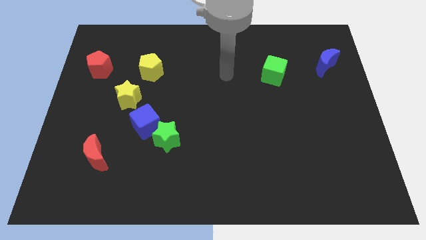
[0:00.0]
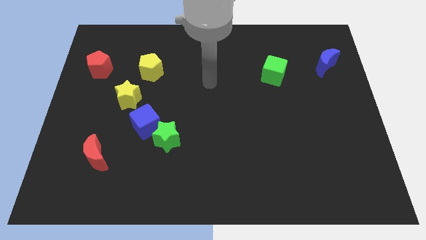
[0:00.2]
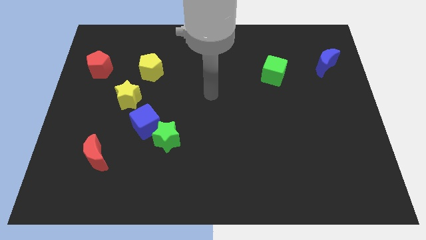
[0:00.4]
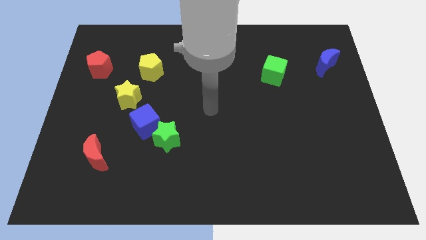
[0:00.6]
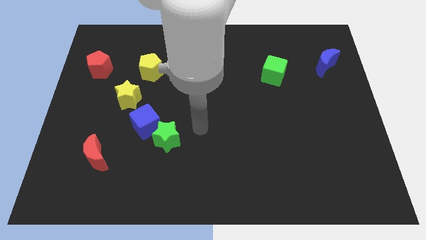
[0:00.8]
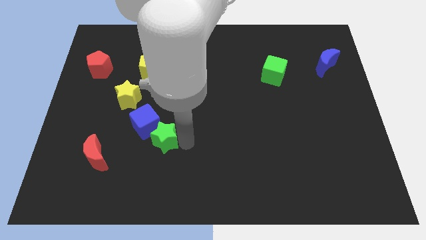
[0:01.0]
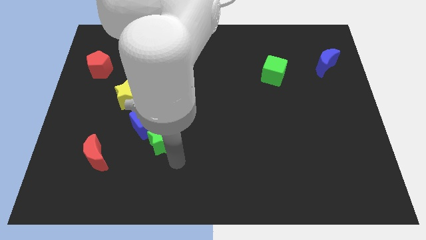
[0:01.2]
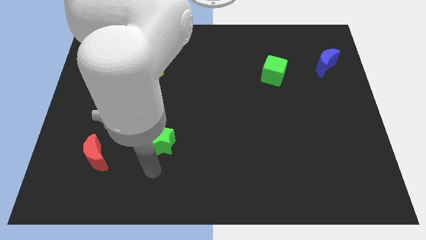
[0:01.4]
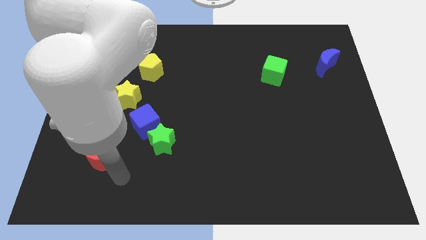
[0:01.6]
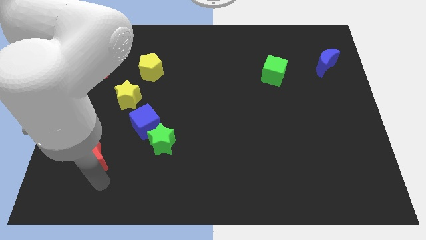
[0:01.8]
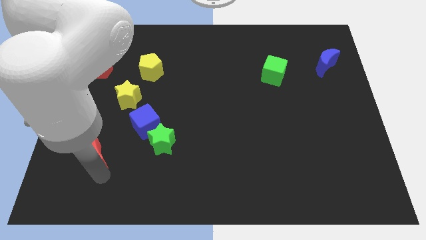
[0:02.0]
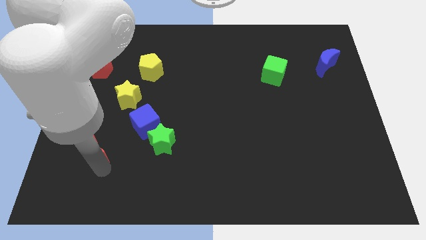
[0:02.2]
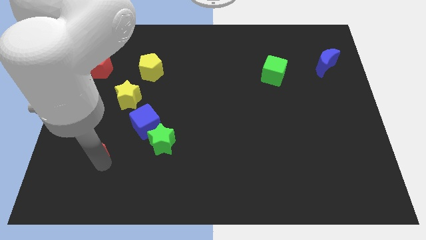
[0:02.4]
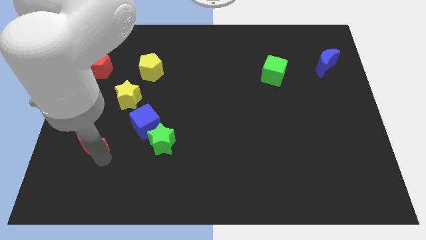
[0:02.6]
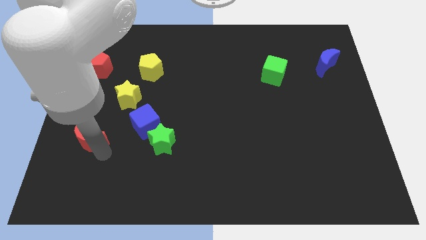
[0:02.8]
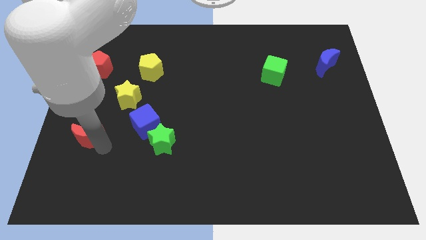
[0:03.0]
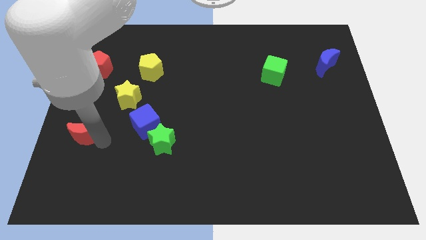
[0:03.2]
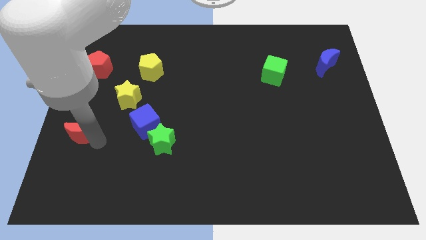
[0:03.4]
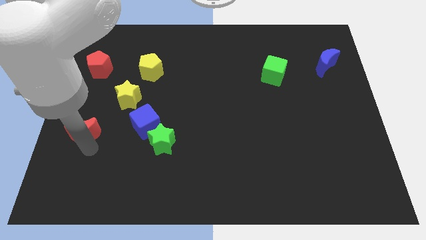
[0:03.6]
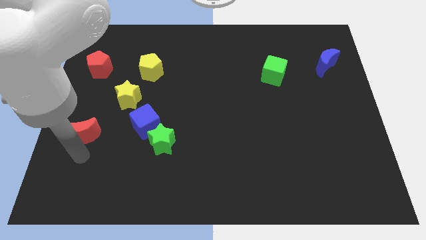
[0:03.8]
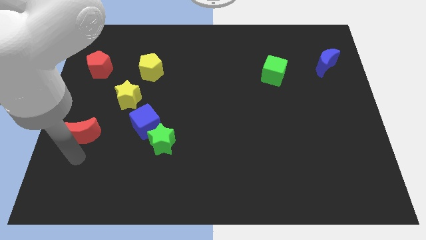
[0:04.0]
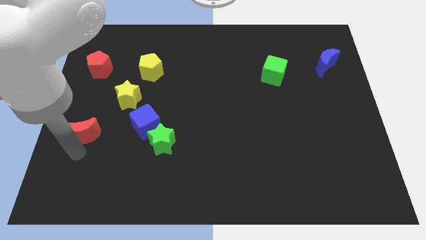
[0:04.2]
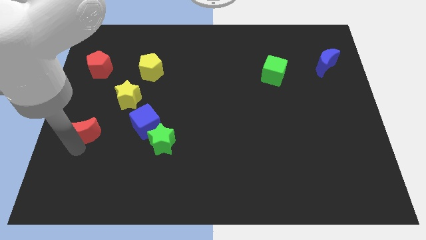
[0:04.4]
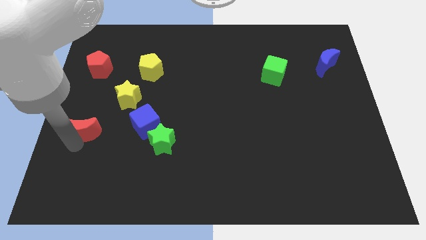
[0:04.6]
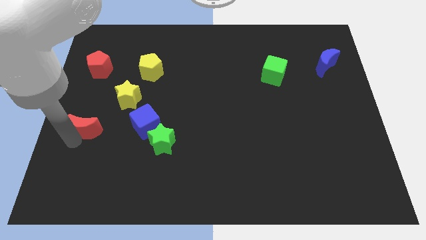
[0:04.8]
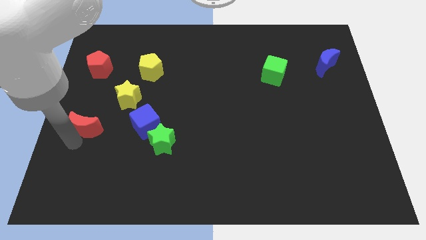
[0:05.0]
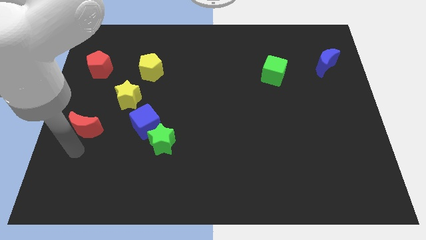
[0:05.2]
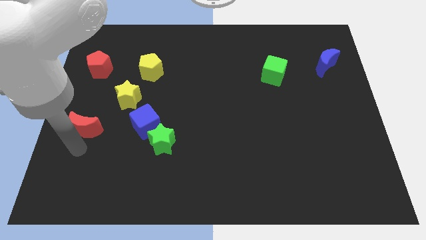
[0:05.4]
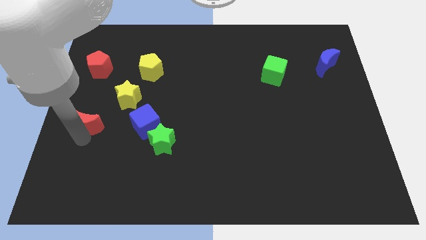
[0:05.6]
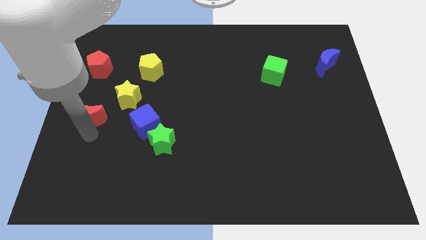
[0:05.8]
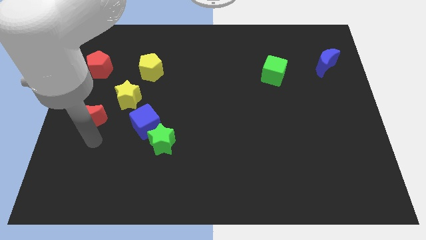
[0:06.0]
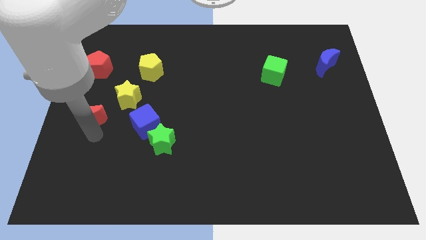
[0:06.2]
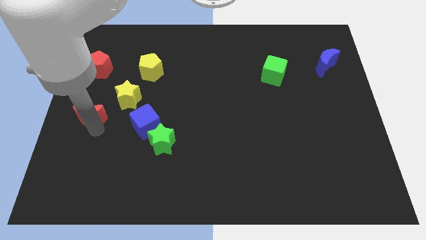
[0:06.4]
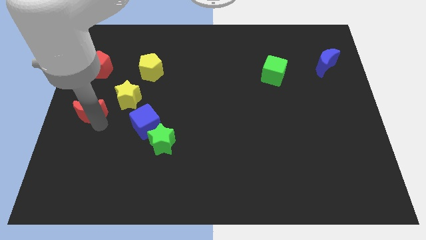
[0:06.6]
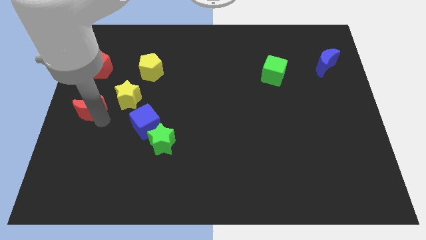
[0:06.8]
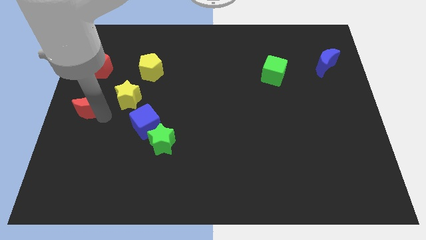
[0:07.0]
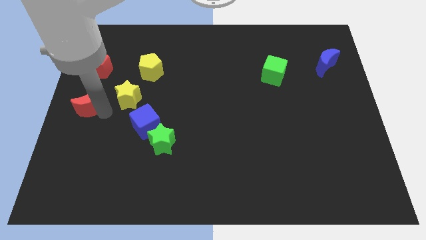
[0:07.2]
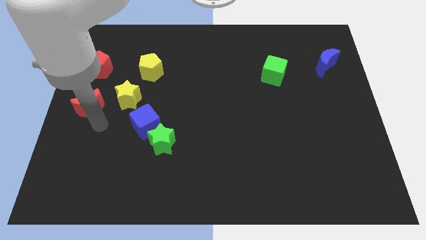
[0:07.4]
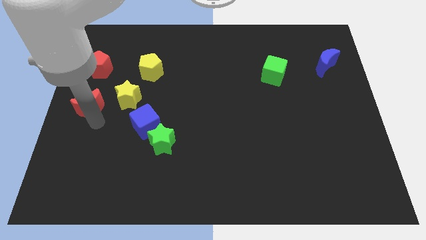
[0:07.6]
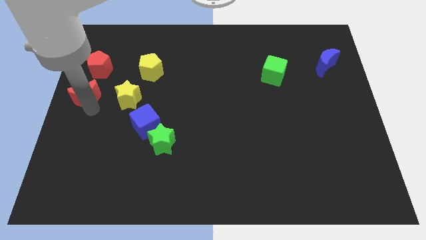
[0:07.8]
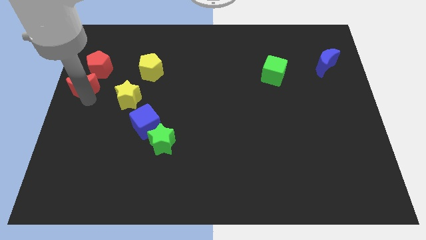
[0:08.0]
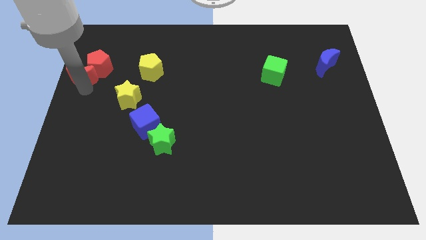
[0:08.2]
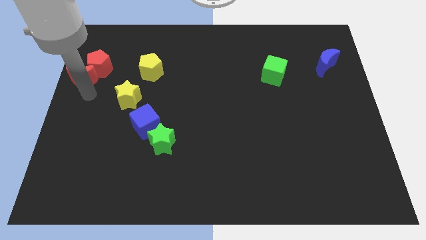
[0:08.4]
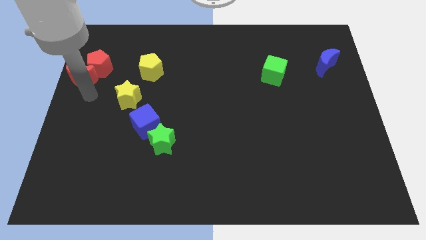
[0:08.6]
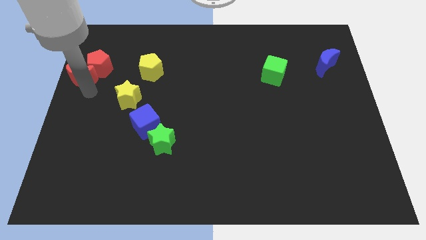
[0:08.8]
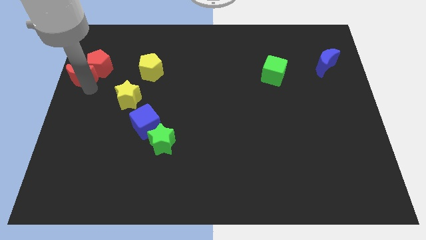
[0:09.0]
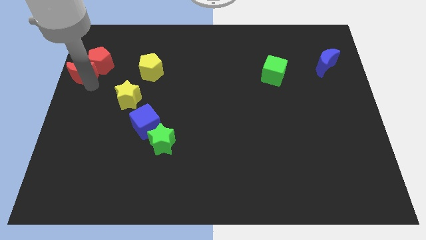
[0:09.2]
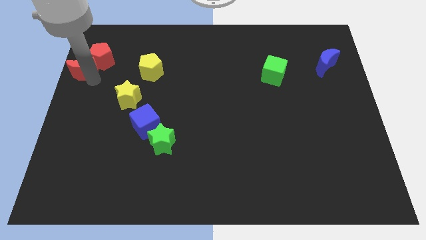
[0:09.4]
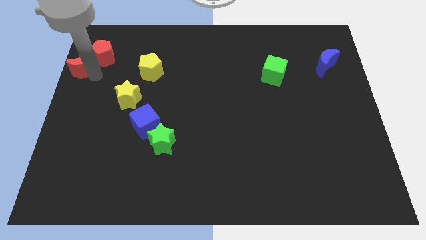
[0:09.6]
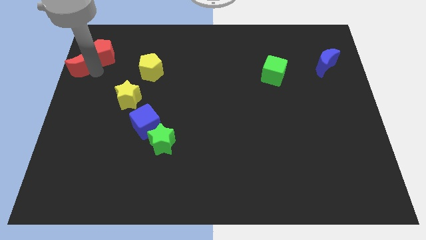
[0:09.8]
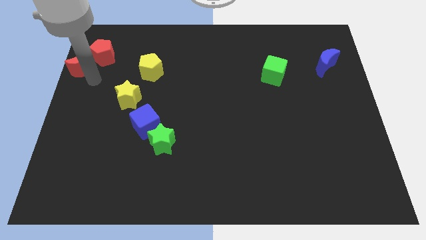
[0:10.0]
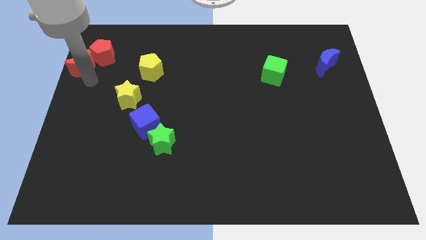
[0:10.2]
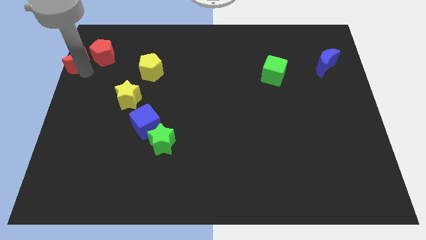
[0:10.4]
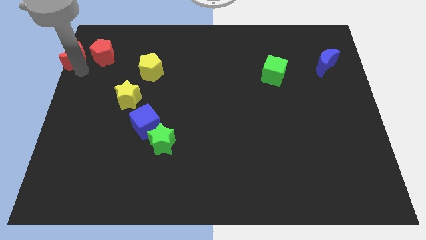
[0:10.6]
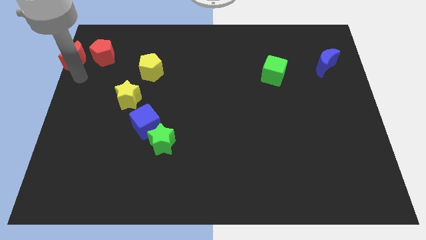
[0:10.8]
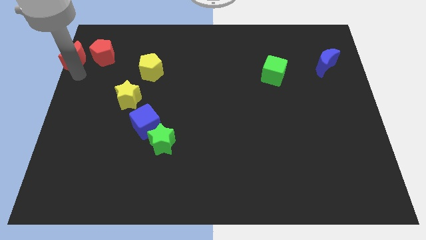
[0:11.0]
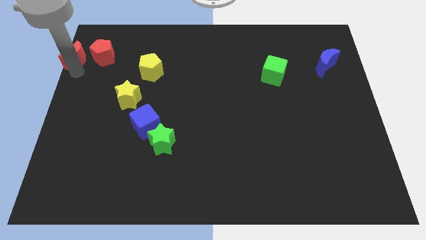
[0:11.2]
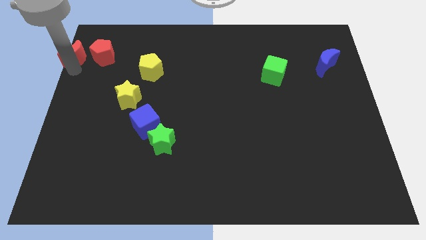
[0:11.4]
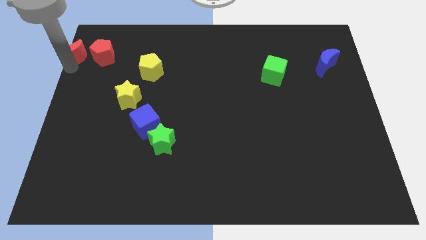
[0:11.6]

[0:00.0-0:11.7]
slide the red moon to the top left

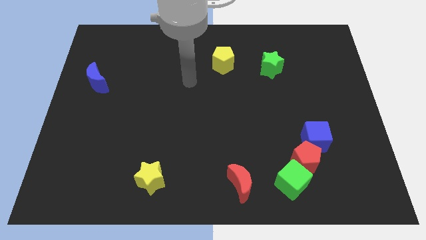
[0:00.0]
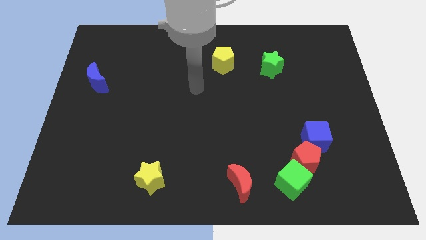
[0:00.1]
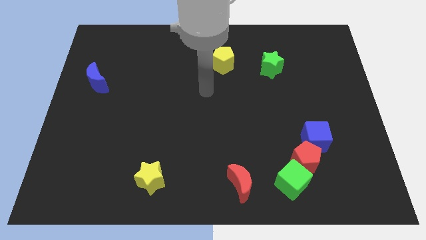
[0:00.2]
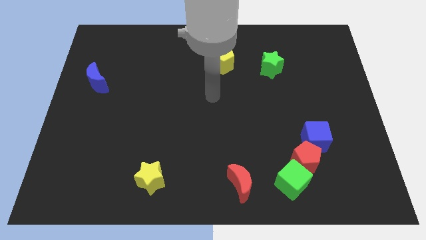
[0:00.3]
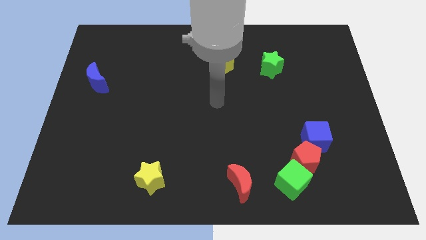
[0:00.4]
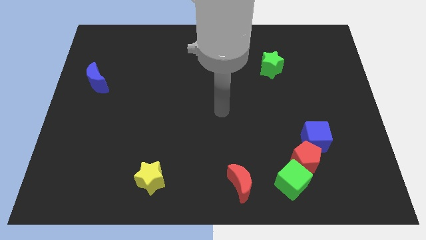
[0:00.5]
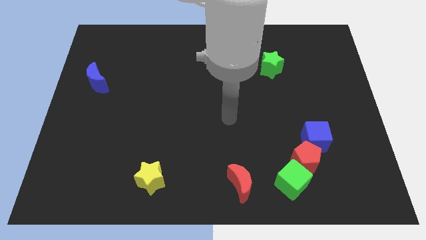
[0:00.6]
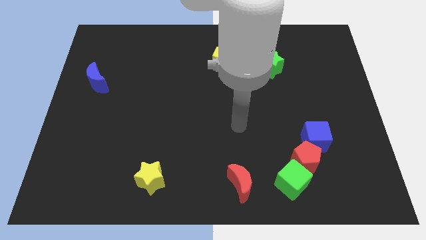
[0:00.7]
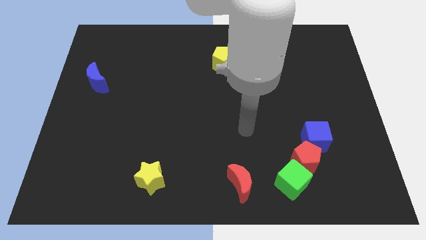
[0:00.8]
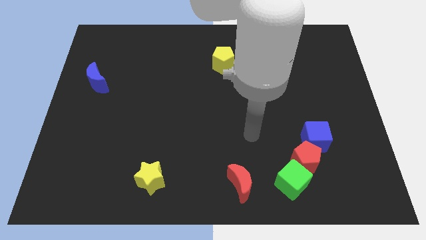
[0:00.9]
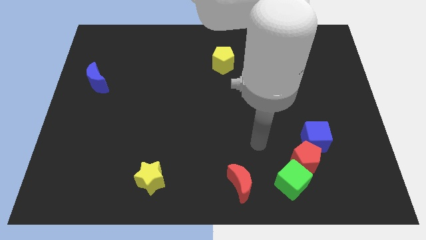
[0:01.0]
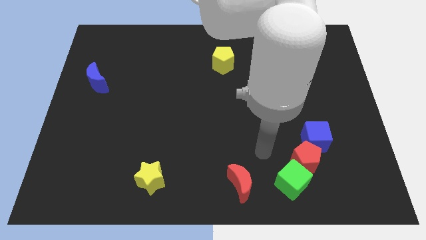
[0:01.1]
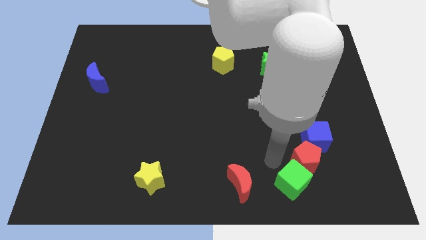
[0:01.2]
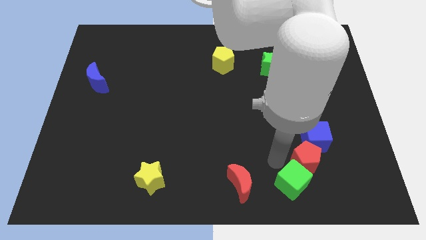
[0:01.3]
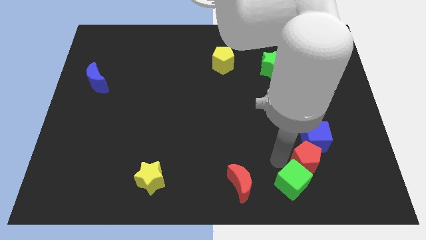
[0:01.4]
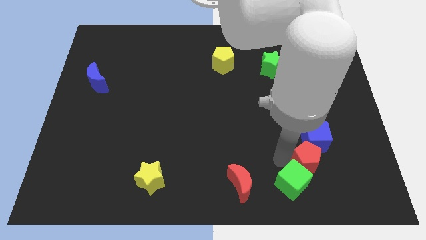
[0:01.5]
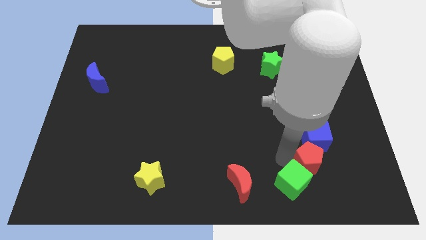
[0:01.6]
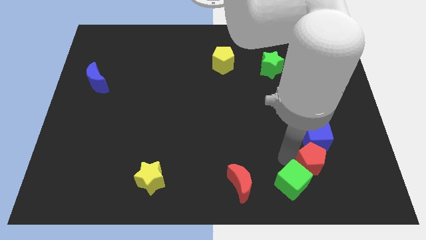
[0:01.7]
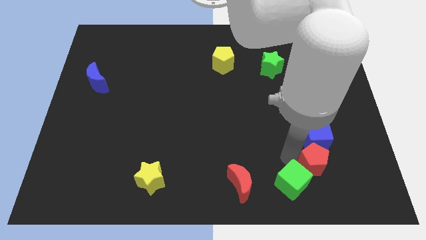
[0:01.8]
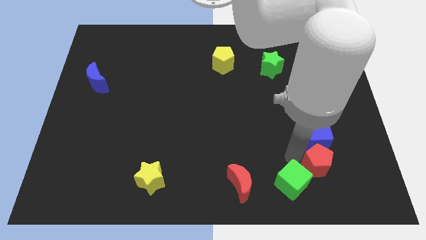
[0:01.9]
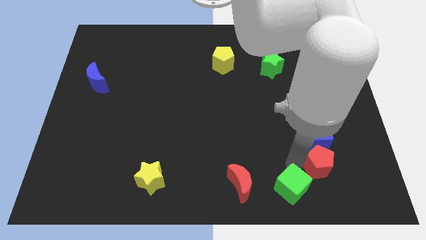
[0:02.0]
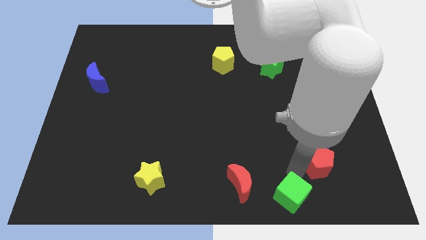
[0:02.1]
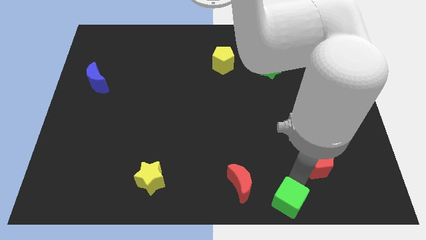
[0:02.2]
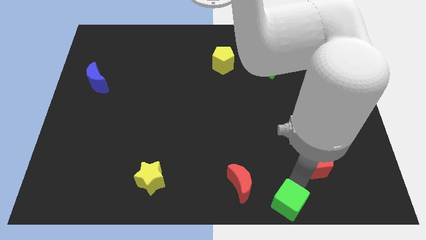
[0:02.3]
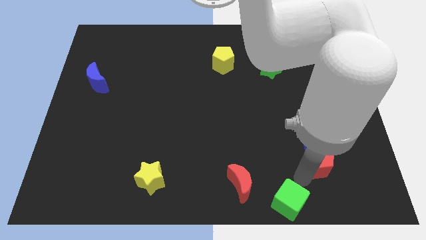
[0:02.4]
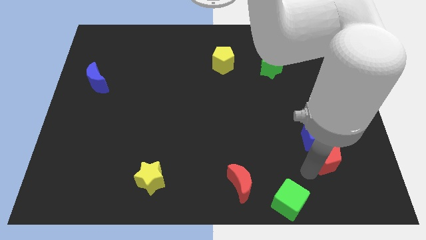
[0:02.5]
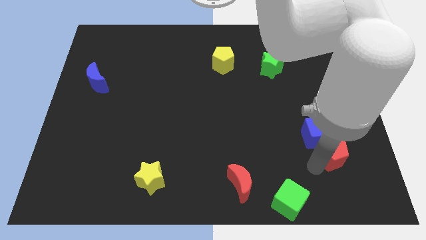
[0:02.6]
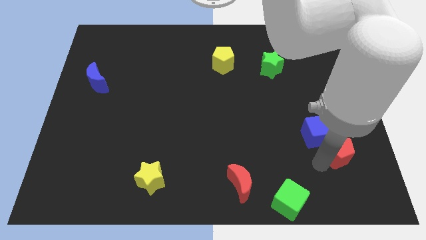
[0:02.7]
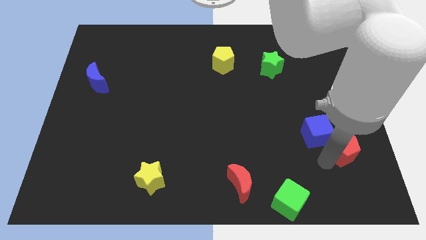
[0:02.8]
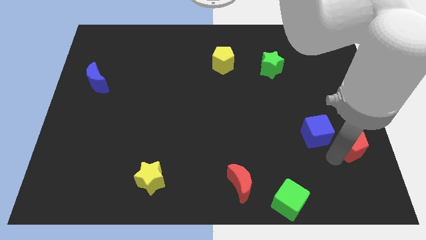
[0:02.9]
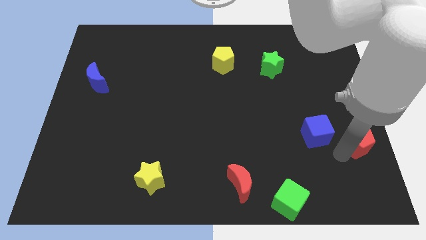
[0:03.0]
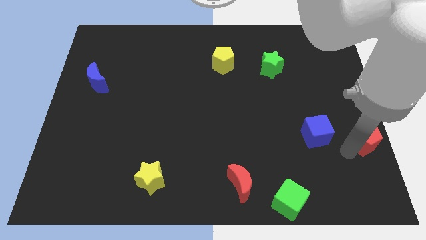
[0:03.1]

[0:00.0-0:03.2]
put the red pentagon to the right side of the board
